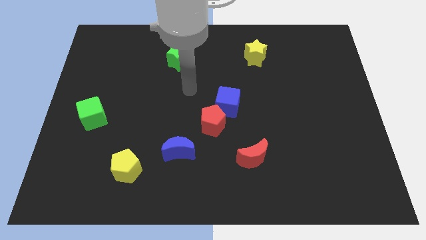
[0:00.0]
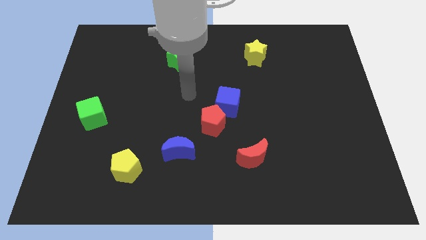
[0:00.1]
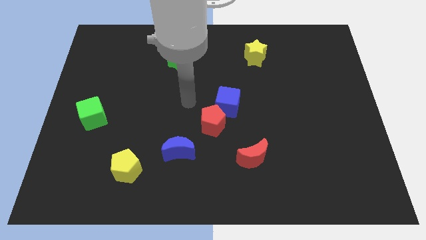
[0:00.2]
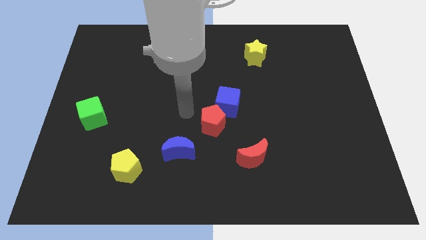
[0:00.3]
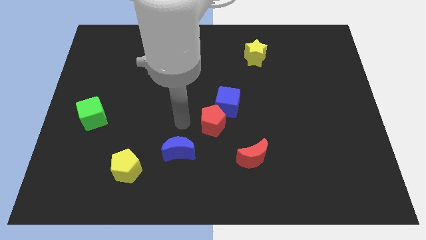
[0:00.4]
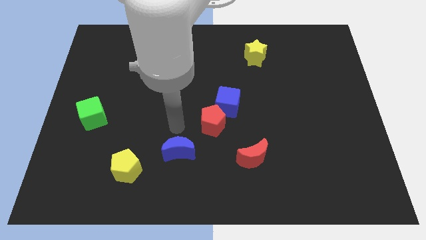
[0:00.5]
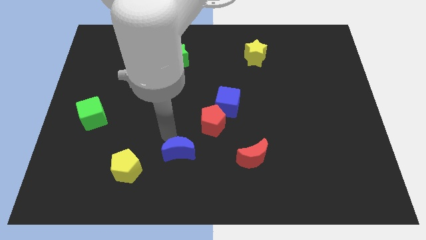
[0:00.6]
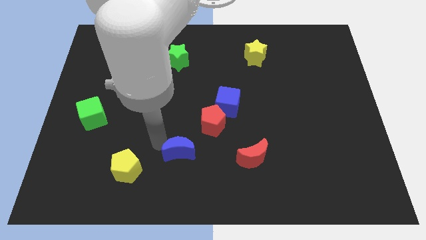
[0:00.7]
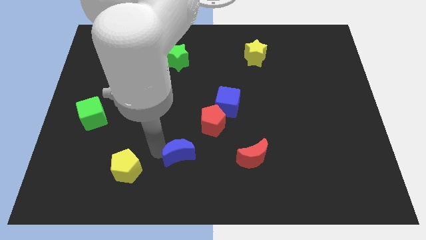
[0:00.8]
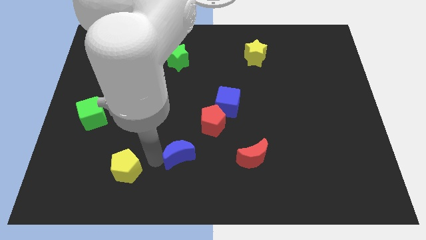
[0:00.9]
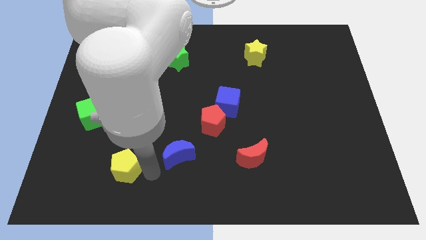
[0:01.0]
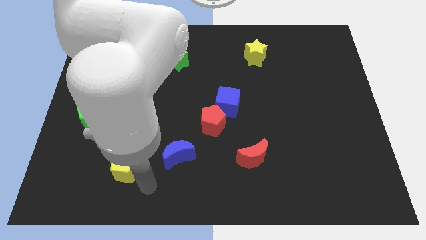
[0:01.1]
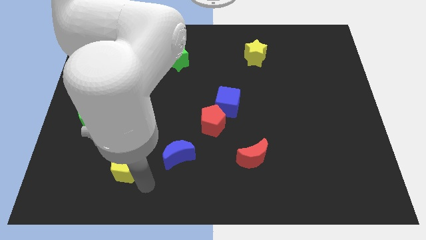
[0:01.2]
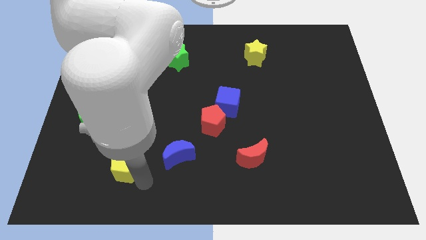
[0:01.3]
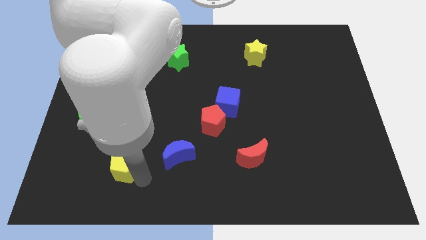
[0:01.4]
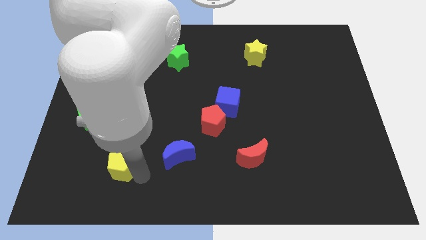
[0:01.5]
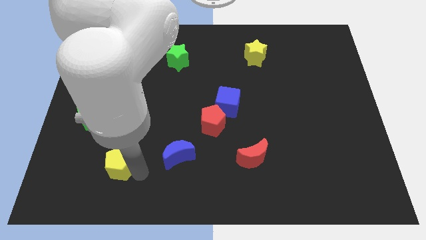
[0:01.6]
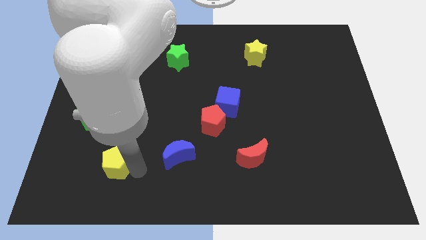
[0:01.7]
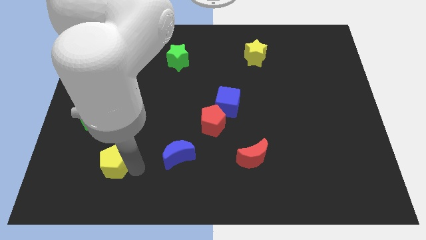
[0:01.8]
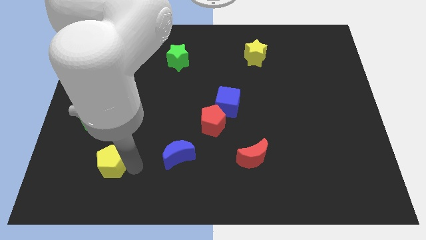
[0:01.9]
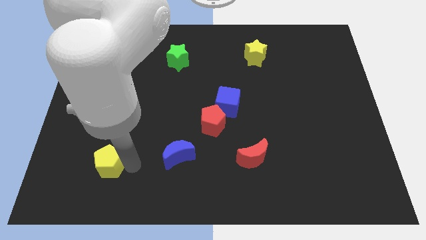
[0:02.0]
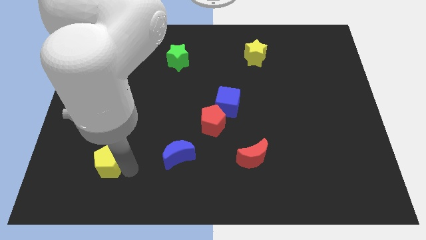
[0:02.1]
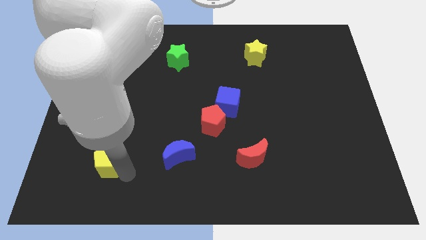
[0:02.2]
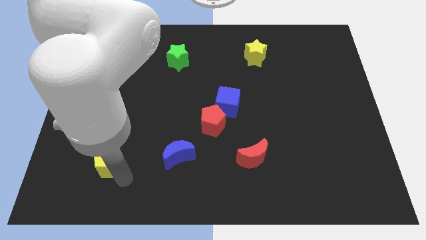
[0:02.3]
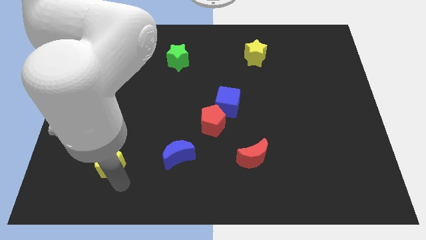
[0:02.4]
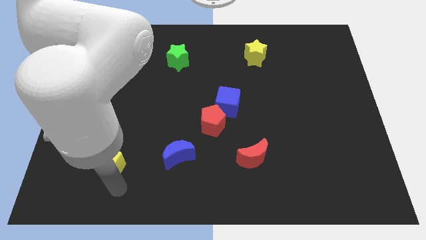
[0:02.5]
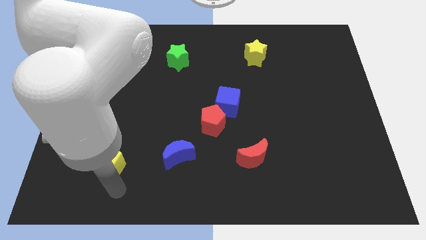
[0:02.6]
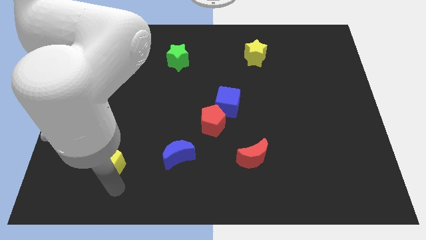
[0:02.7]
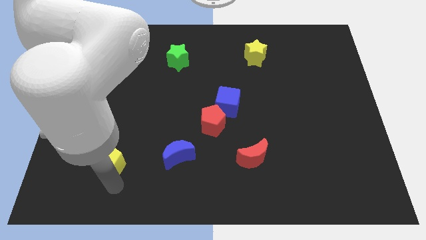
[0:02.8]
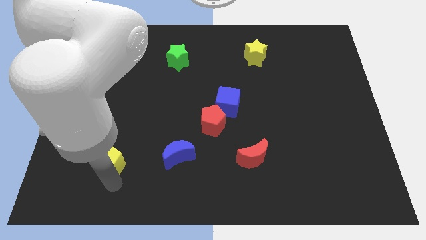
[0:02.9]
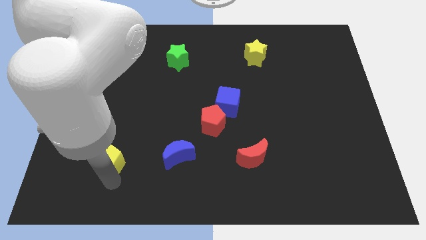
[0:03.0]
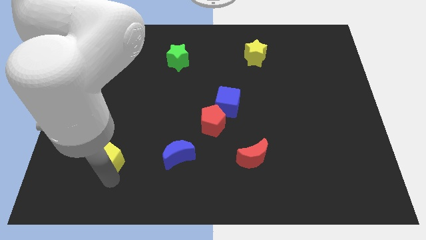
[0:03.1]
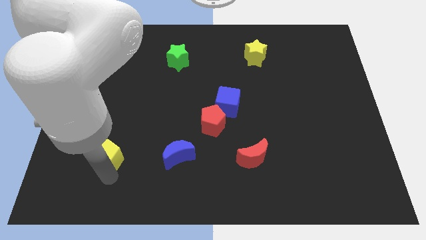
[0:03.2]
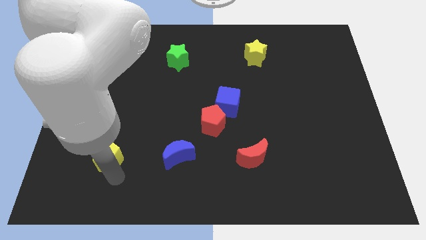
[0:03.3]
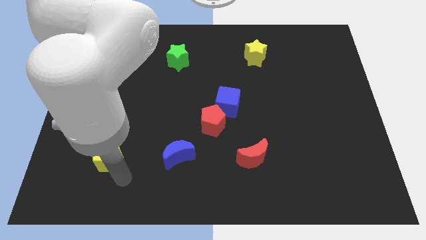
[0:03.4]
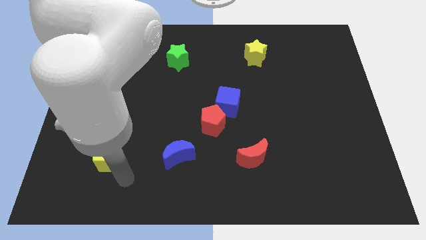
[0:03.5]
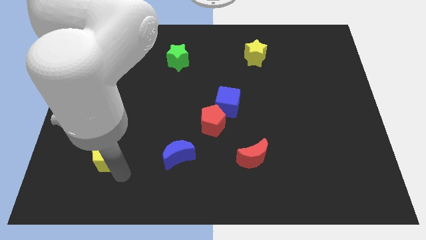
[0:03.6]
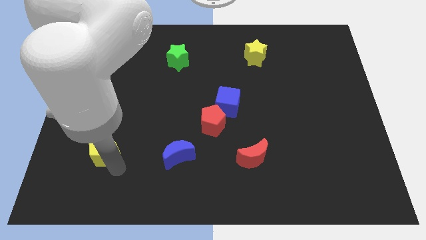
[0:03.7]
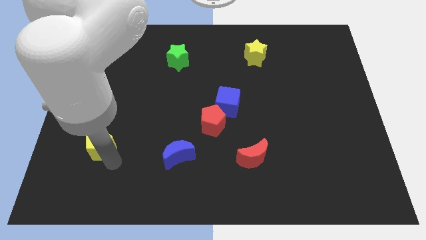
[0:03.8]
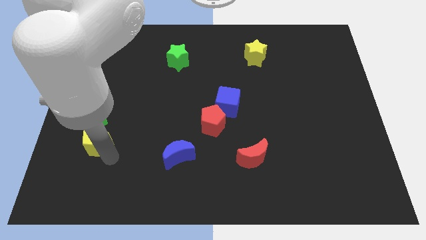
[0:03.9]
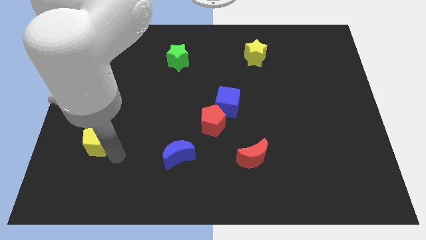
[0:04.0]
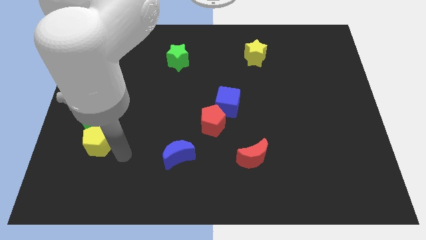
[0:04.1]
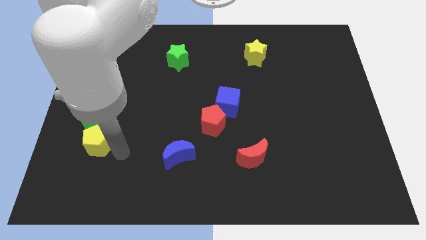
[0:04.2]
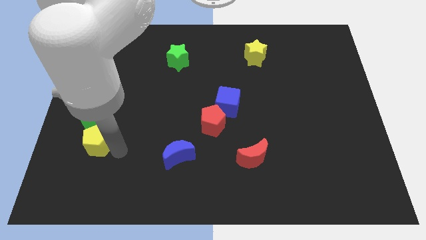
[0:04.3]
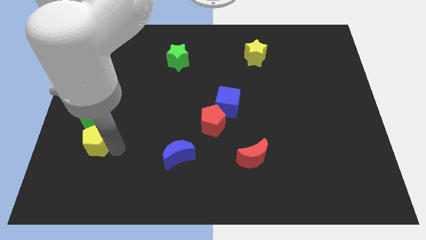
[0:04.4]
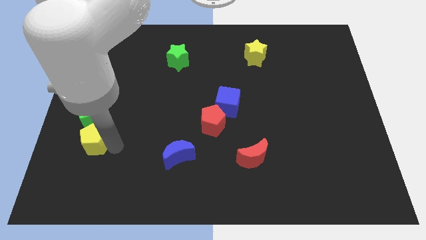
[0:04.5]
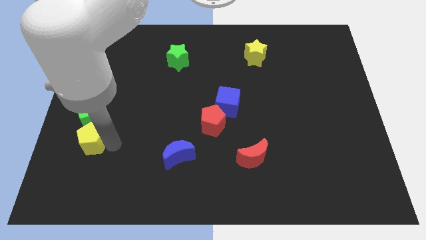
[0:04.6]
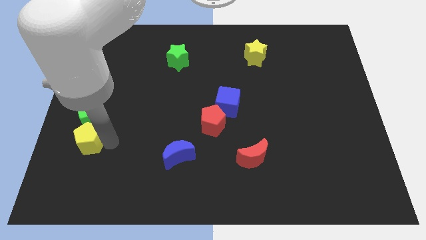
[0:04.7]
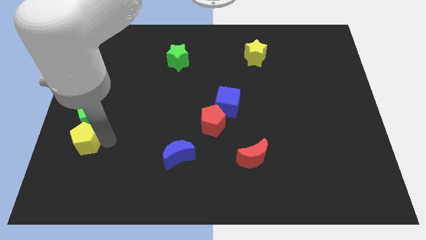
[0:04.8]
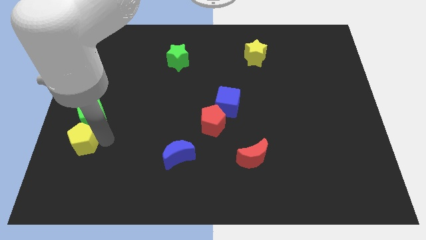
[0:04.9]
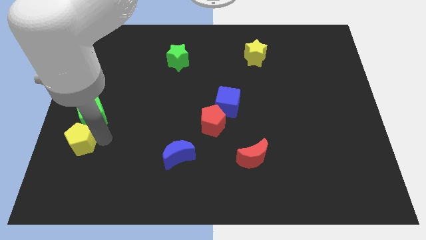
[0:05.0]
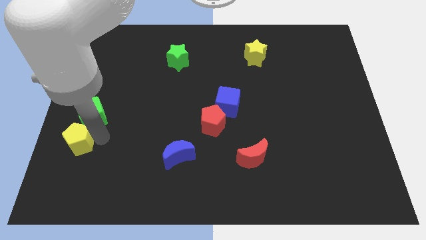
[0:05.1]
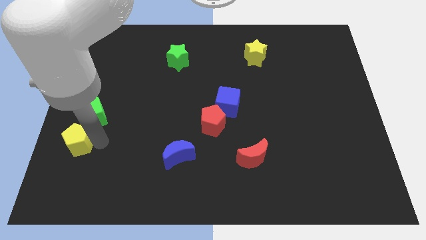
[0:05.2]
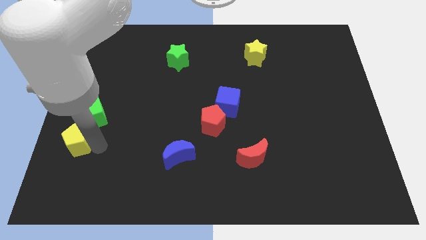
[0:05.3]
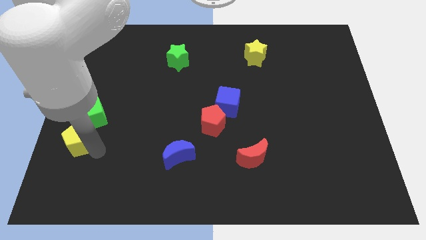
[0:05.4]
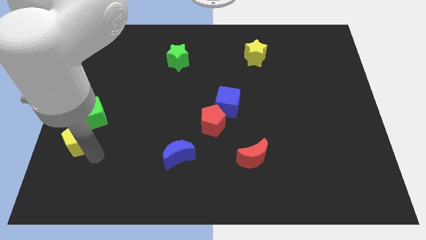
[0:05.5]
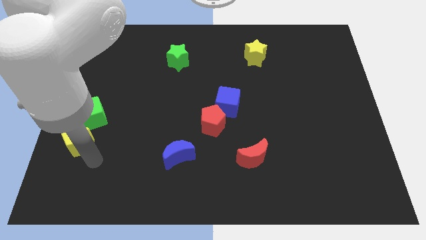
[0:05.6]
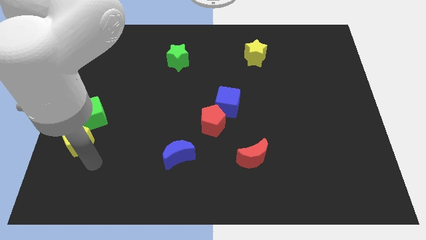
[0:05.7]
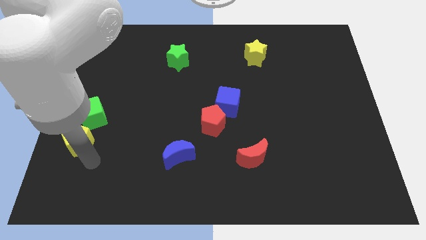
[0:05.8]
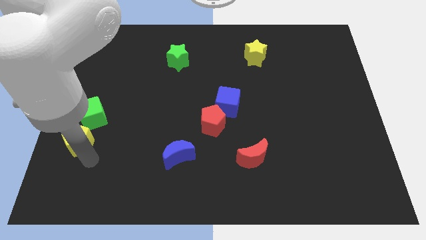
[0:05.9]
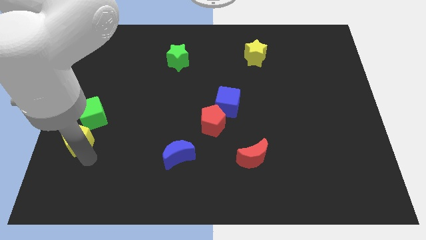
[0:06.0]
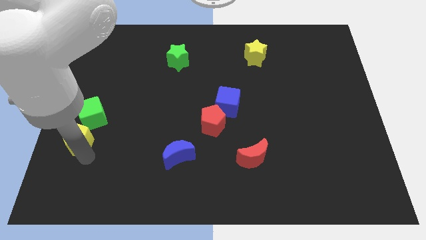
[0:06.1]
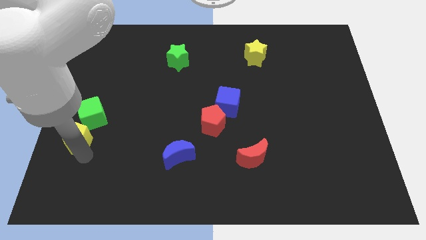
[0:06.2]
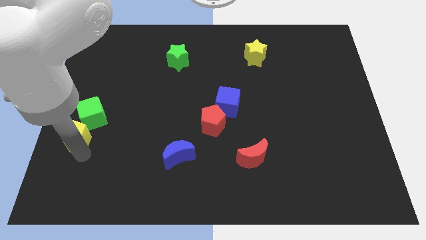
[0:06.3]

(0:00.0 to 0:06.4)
put the yellow pentagon to the left side of the board
